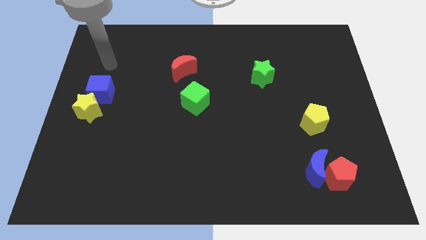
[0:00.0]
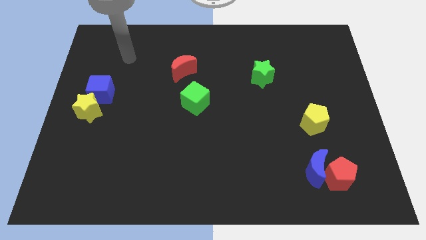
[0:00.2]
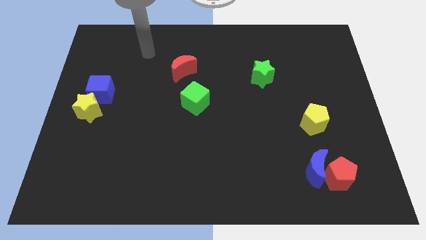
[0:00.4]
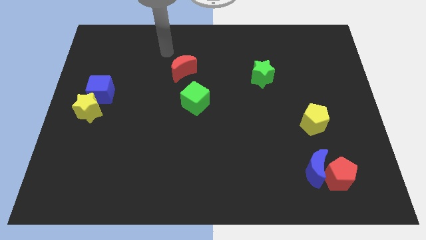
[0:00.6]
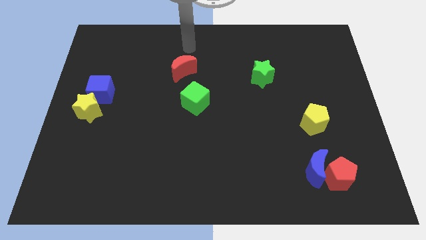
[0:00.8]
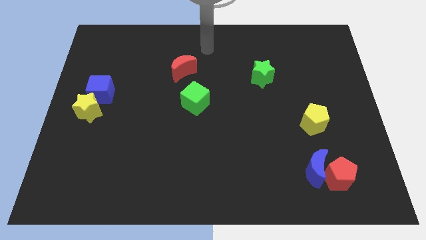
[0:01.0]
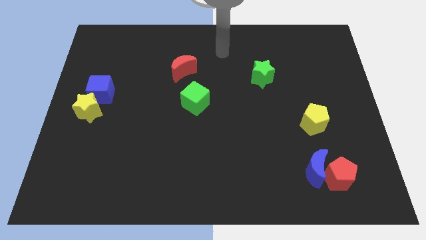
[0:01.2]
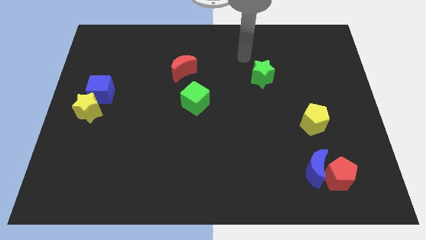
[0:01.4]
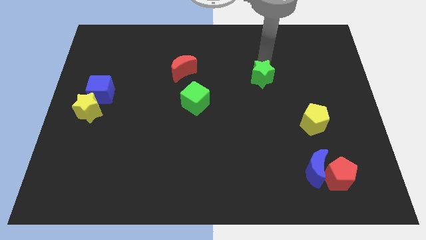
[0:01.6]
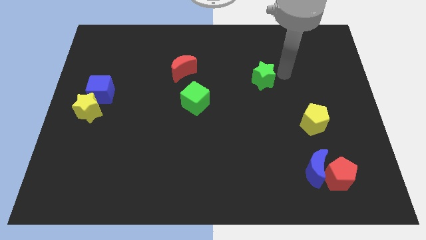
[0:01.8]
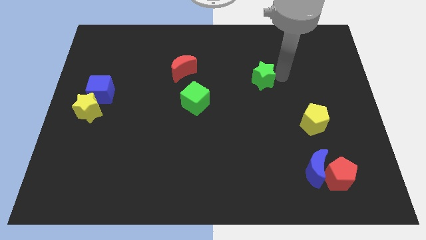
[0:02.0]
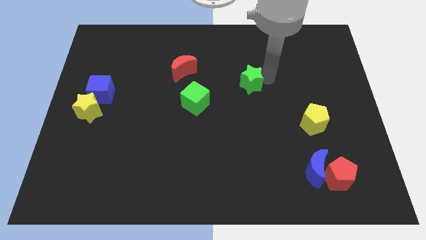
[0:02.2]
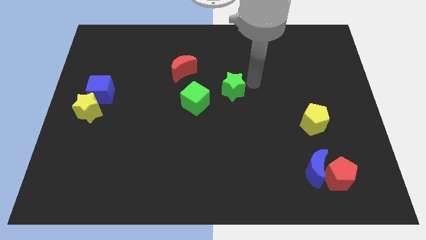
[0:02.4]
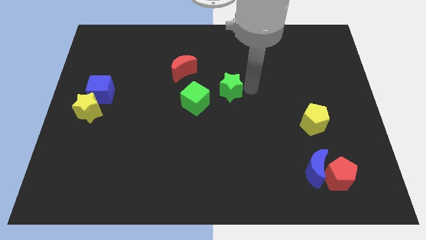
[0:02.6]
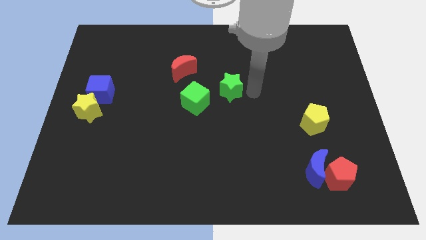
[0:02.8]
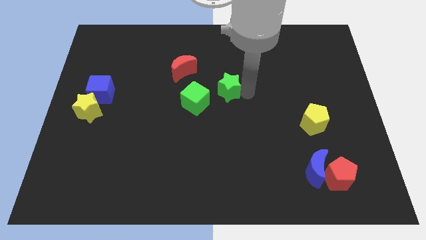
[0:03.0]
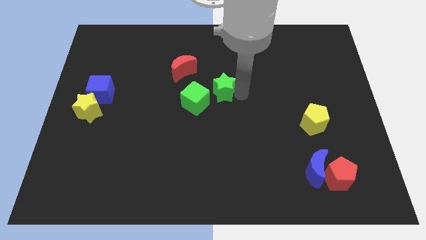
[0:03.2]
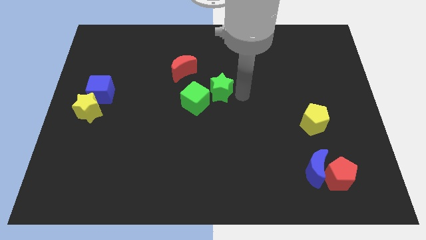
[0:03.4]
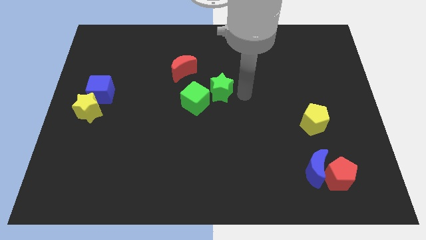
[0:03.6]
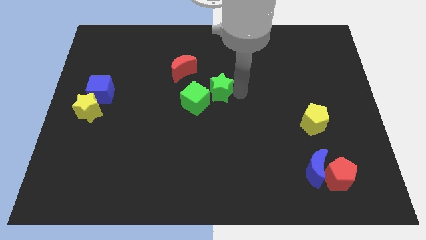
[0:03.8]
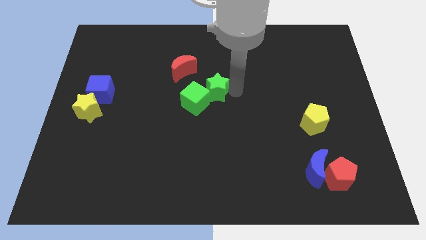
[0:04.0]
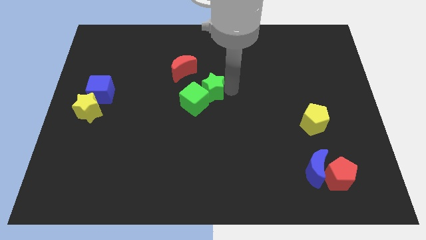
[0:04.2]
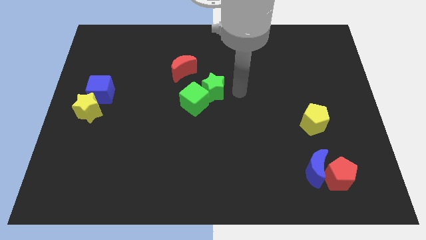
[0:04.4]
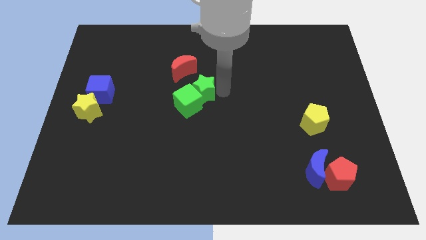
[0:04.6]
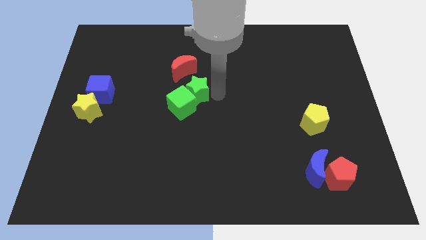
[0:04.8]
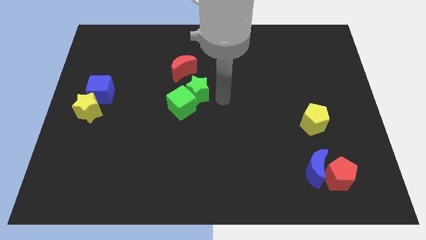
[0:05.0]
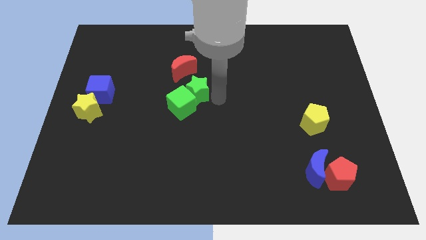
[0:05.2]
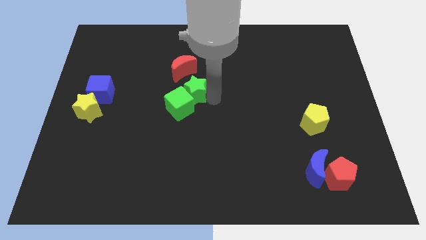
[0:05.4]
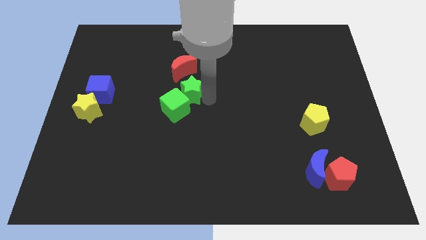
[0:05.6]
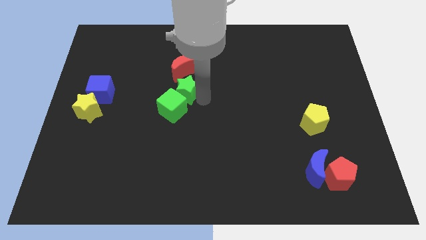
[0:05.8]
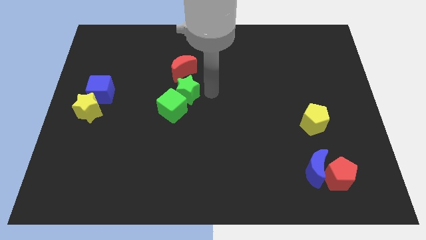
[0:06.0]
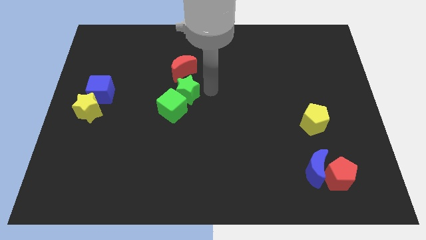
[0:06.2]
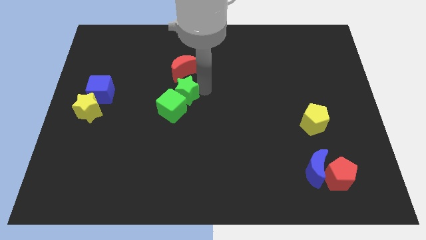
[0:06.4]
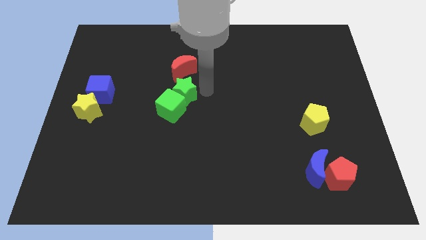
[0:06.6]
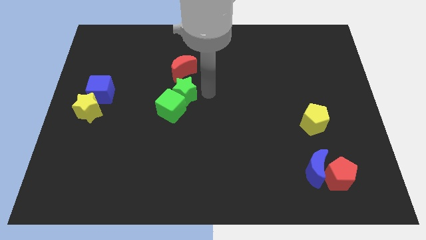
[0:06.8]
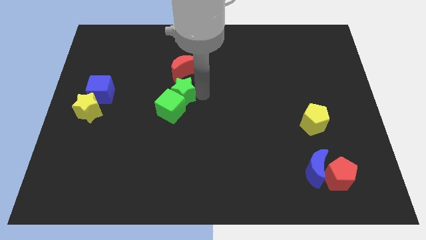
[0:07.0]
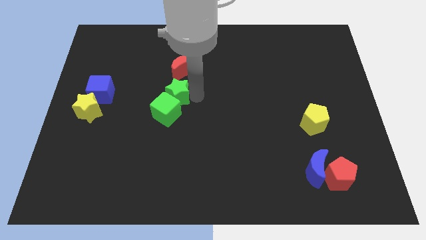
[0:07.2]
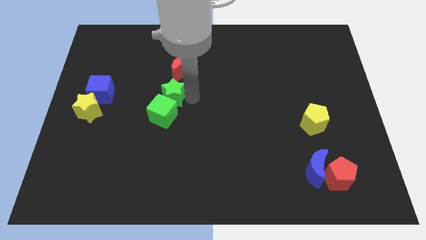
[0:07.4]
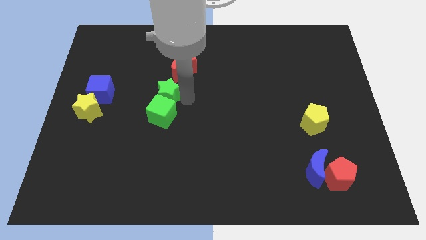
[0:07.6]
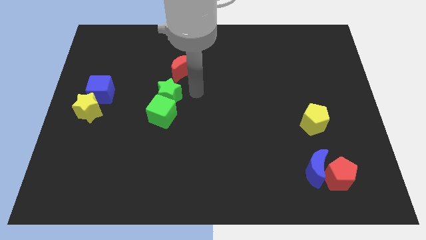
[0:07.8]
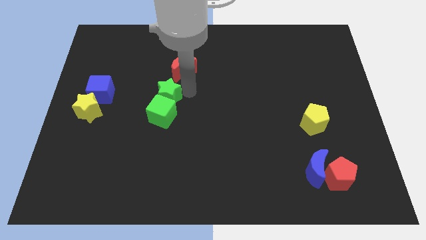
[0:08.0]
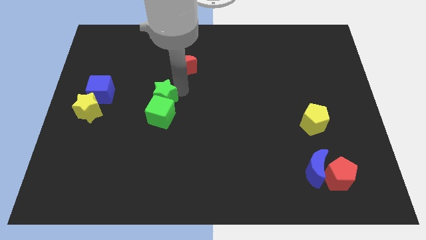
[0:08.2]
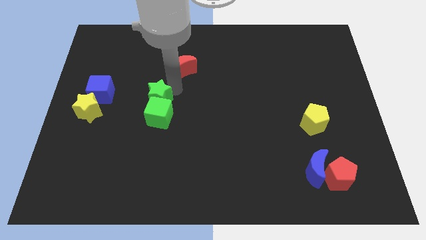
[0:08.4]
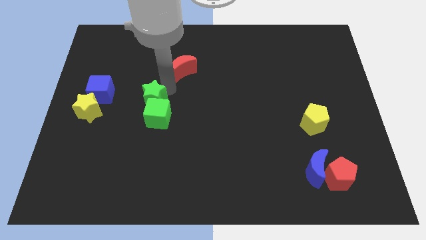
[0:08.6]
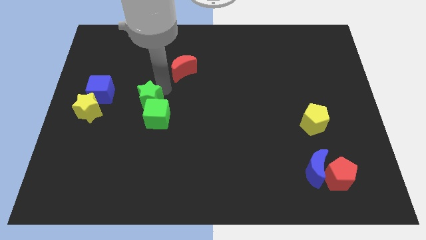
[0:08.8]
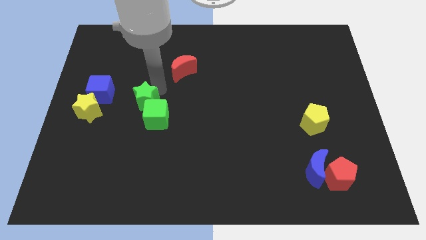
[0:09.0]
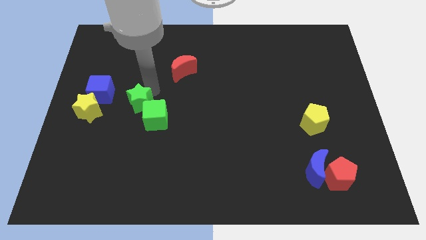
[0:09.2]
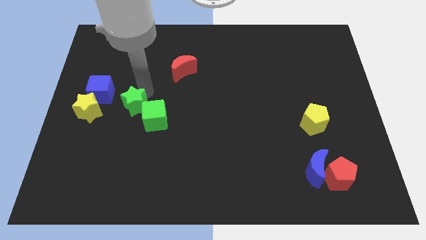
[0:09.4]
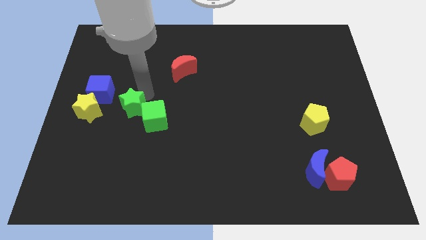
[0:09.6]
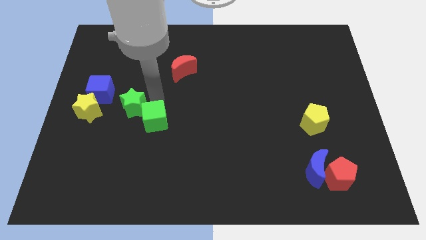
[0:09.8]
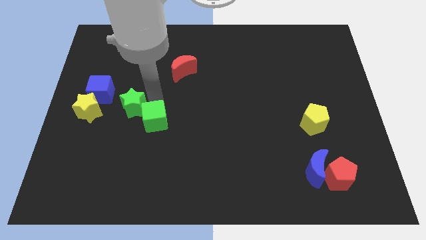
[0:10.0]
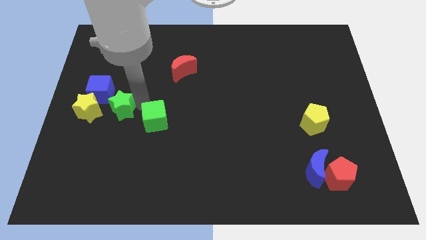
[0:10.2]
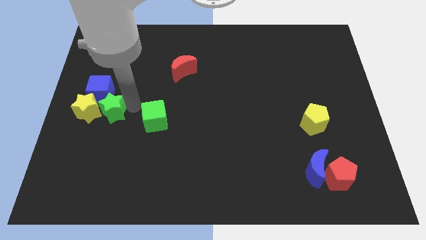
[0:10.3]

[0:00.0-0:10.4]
slide the green star towards the yellow star

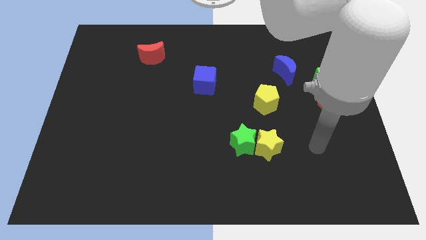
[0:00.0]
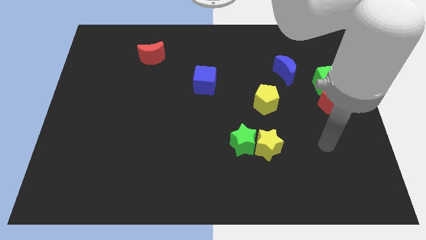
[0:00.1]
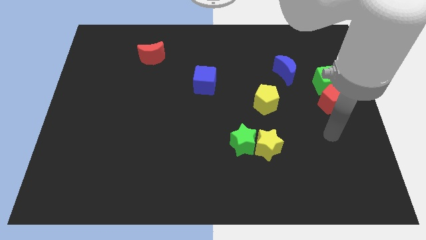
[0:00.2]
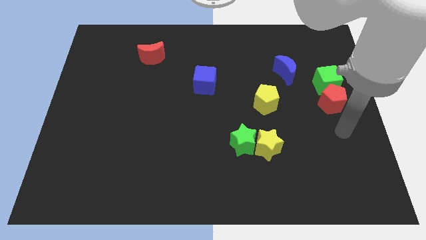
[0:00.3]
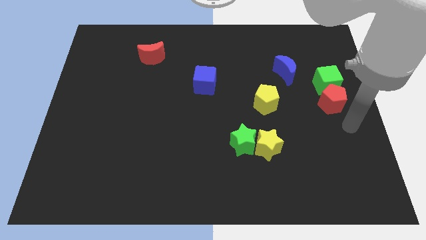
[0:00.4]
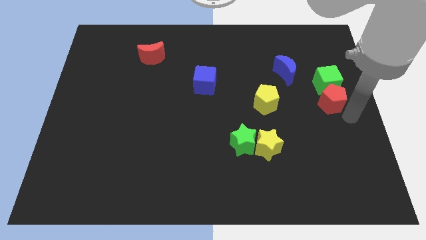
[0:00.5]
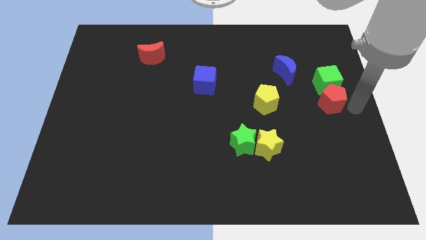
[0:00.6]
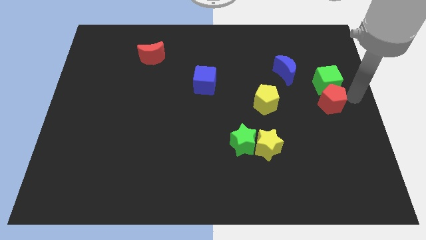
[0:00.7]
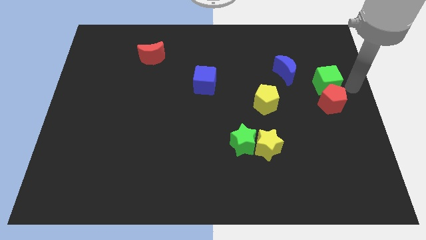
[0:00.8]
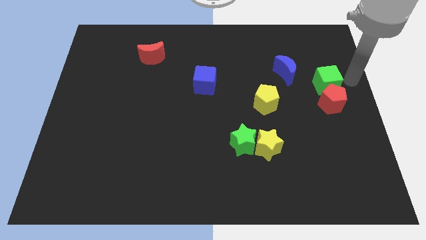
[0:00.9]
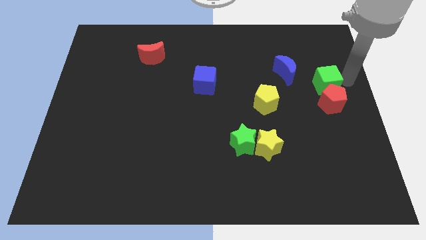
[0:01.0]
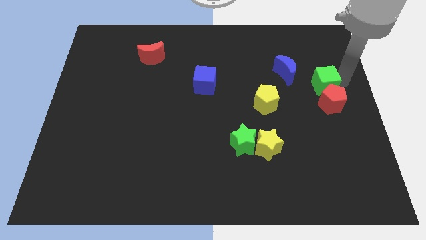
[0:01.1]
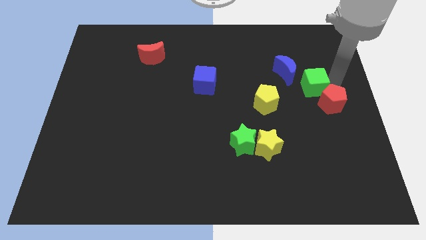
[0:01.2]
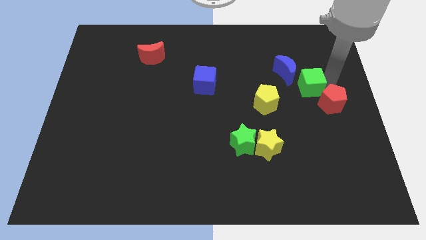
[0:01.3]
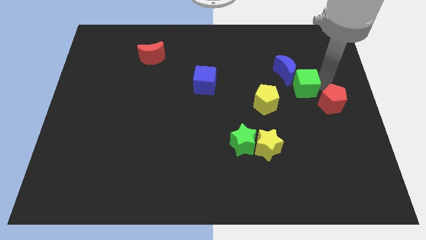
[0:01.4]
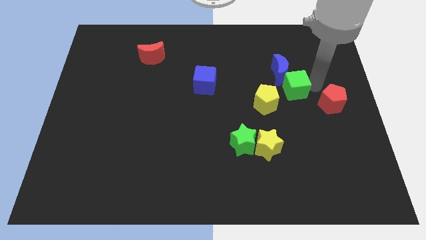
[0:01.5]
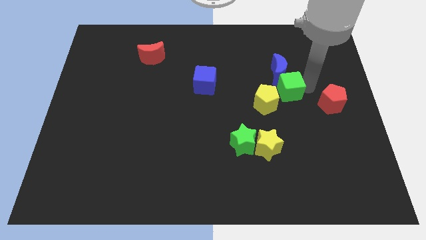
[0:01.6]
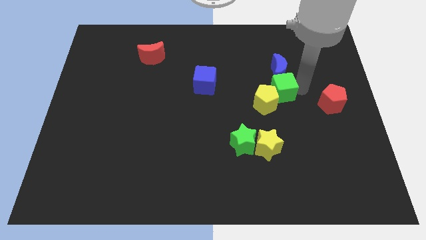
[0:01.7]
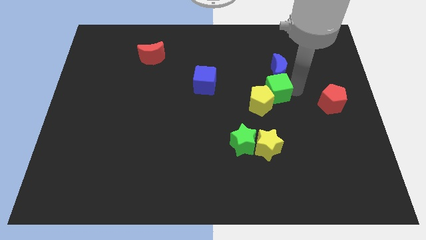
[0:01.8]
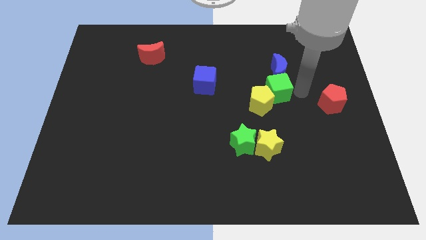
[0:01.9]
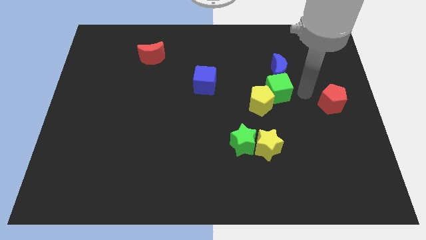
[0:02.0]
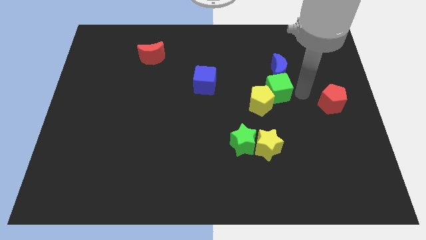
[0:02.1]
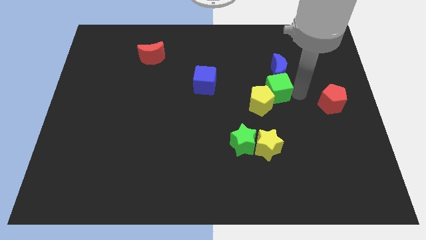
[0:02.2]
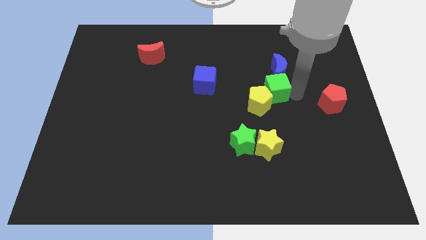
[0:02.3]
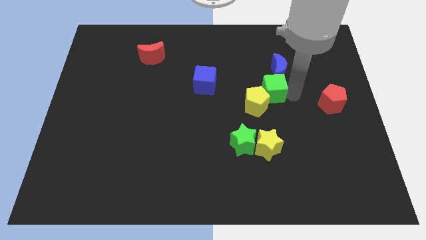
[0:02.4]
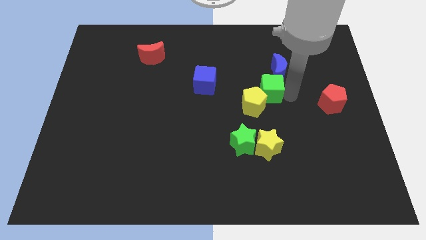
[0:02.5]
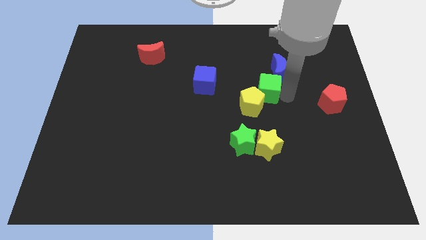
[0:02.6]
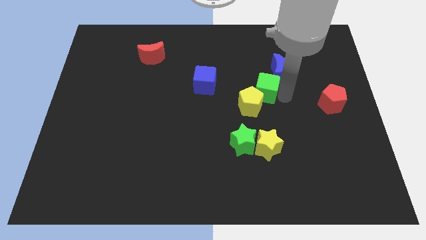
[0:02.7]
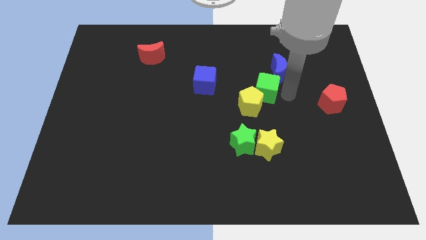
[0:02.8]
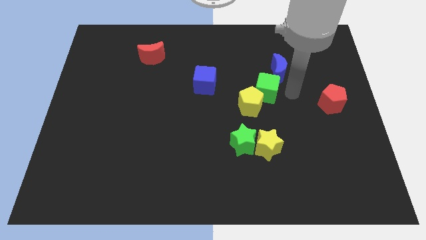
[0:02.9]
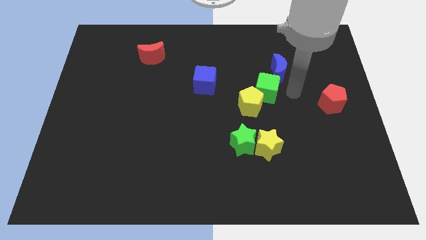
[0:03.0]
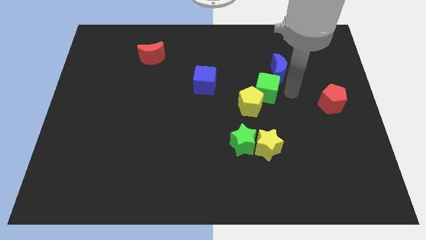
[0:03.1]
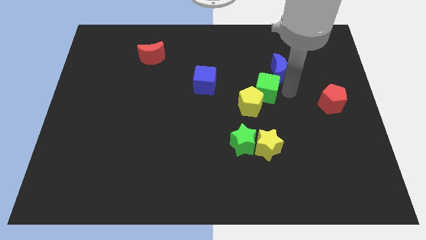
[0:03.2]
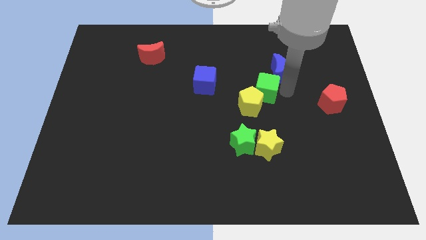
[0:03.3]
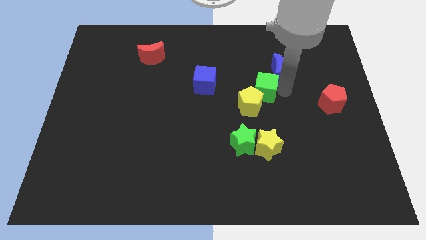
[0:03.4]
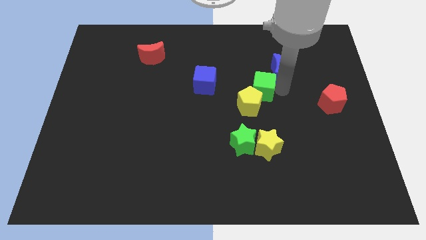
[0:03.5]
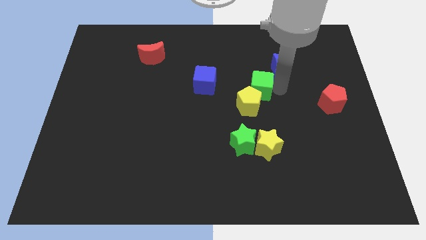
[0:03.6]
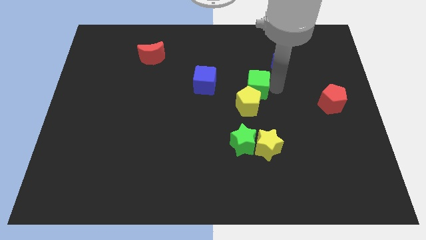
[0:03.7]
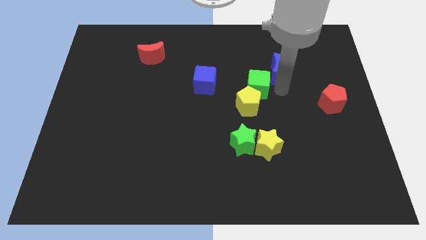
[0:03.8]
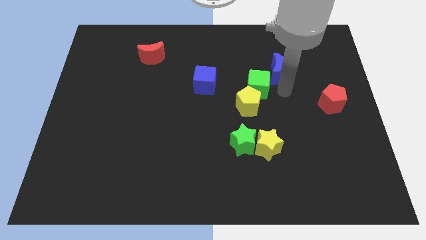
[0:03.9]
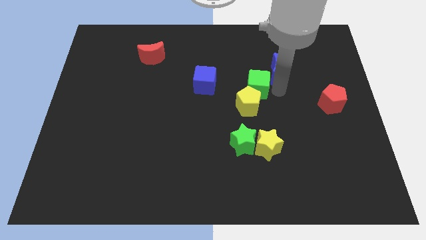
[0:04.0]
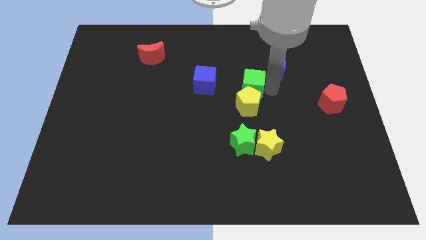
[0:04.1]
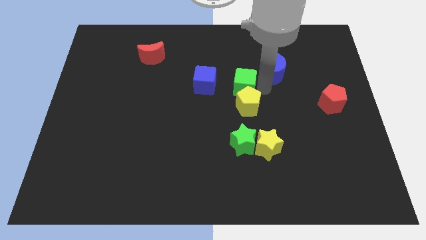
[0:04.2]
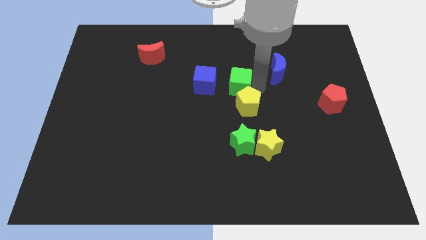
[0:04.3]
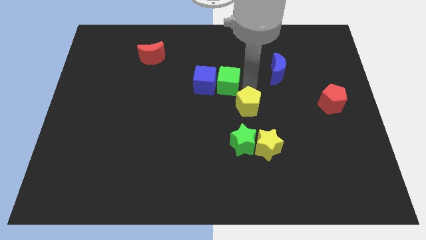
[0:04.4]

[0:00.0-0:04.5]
slide the green cube to the blue cube
